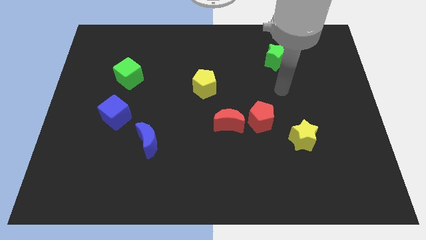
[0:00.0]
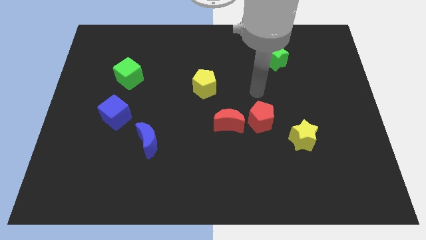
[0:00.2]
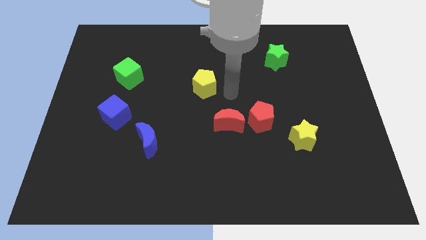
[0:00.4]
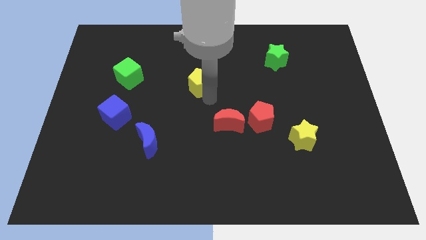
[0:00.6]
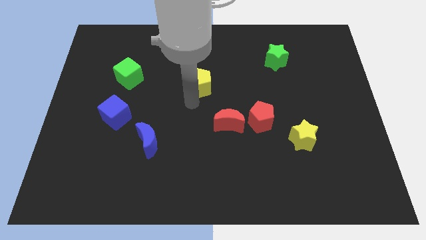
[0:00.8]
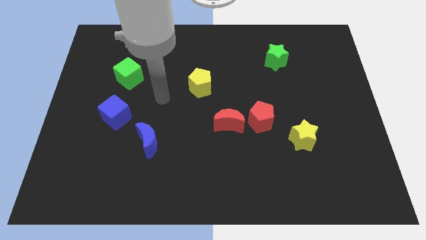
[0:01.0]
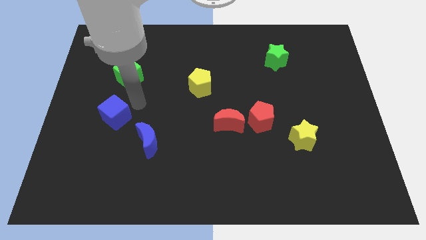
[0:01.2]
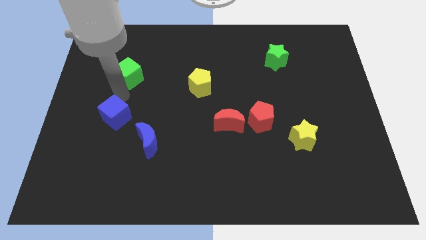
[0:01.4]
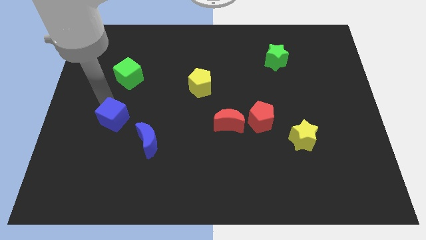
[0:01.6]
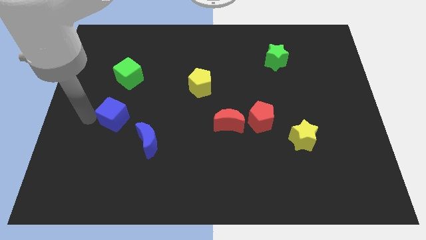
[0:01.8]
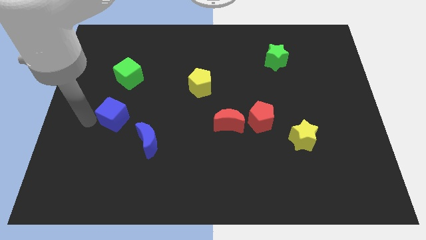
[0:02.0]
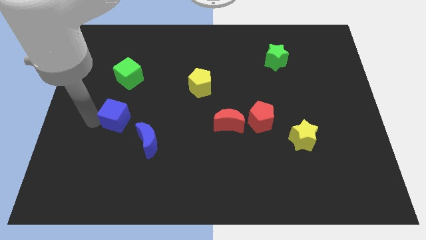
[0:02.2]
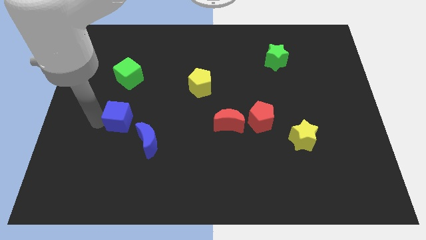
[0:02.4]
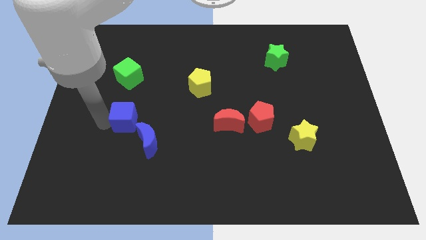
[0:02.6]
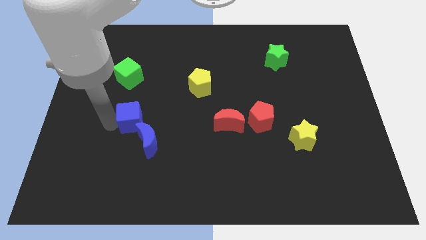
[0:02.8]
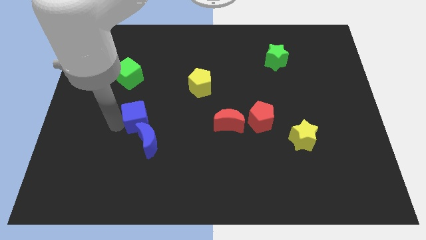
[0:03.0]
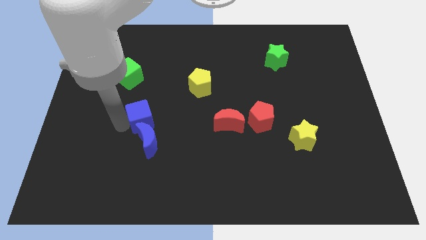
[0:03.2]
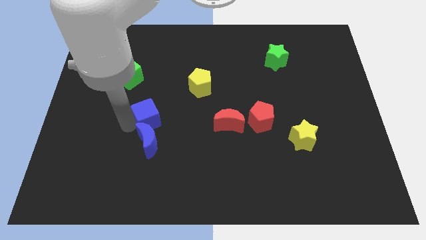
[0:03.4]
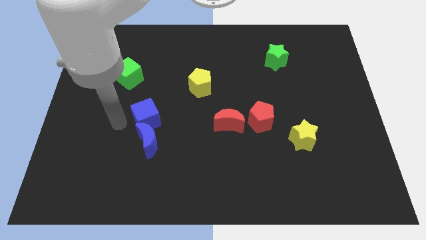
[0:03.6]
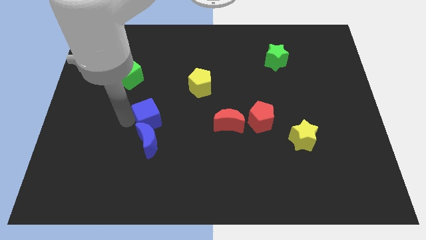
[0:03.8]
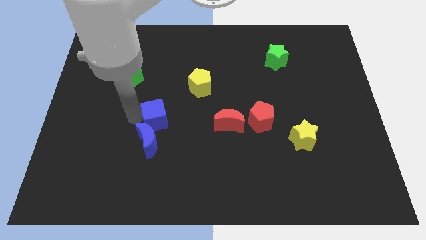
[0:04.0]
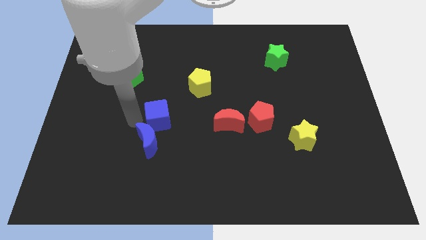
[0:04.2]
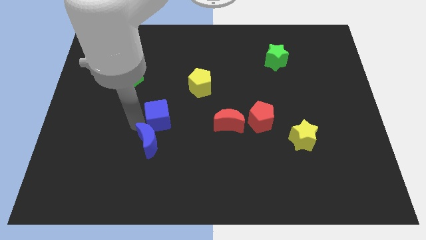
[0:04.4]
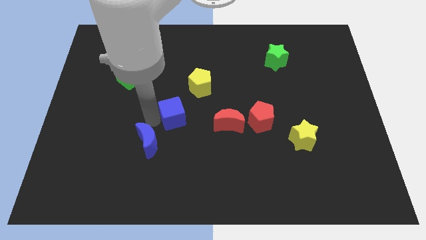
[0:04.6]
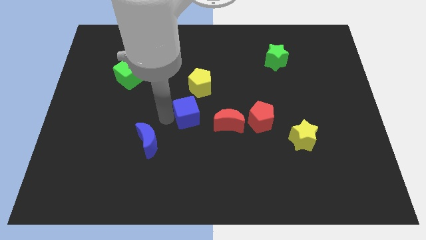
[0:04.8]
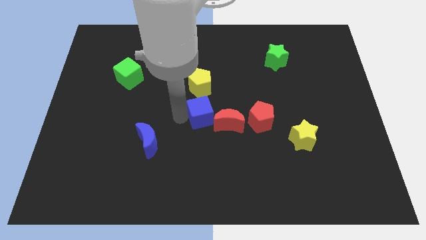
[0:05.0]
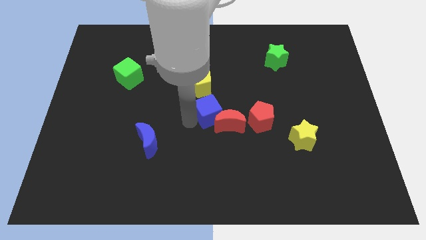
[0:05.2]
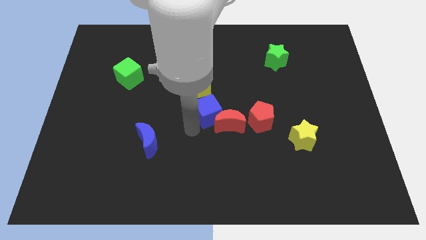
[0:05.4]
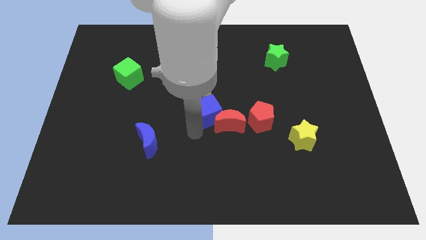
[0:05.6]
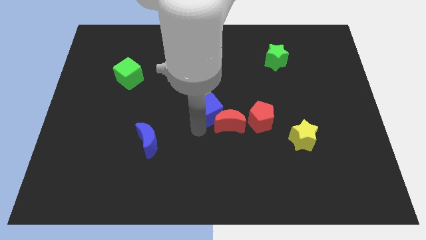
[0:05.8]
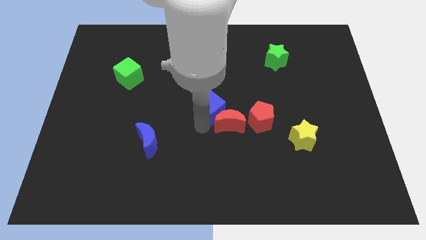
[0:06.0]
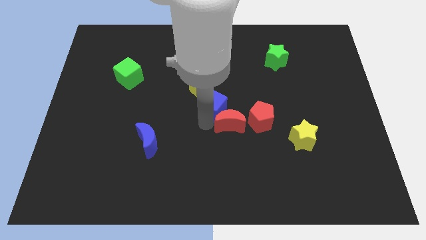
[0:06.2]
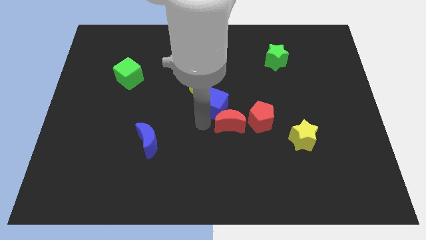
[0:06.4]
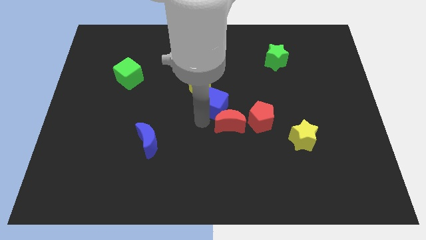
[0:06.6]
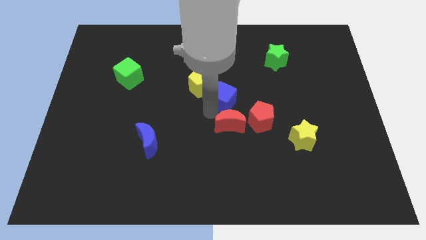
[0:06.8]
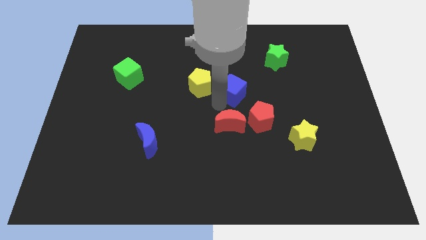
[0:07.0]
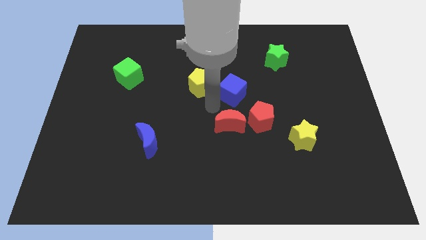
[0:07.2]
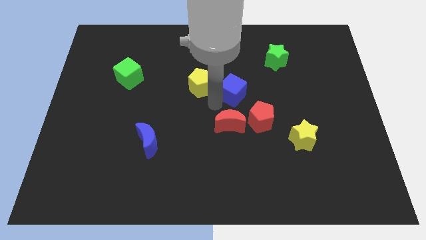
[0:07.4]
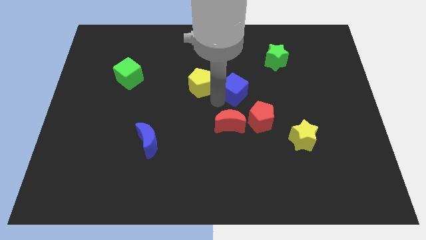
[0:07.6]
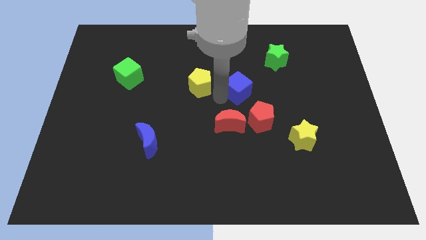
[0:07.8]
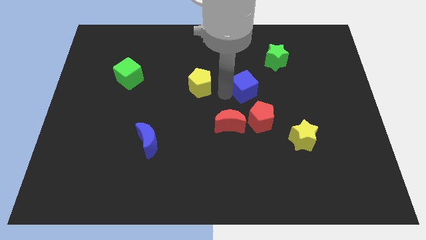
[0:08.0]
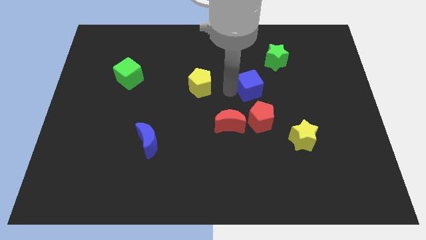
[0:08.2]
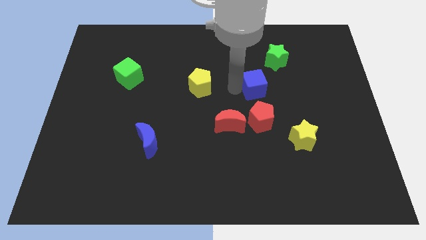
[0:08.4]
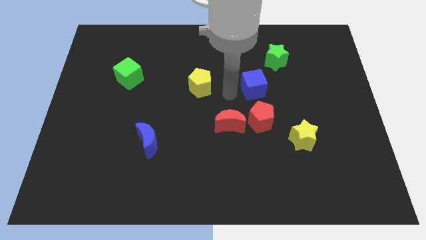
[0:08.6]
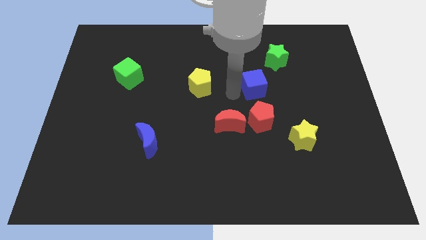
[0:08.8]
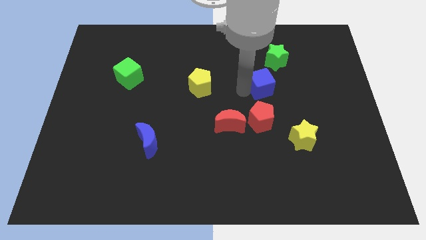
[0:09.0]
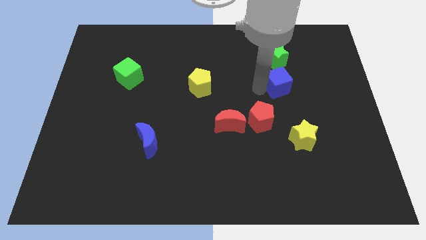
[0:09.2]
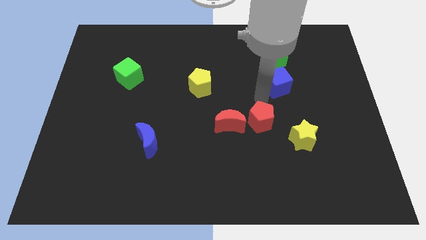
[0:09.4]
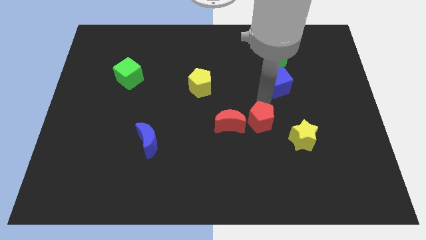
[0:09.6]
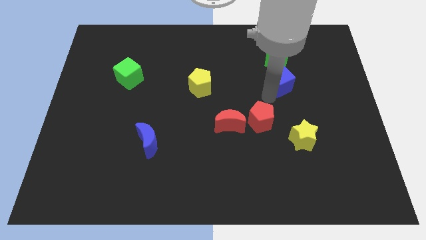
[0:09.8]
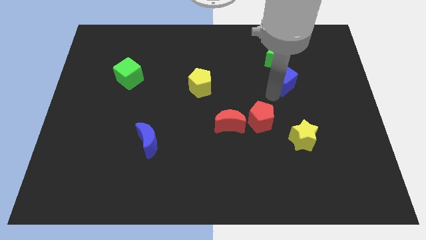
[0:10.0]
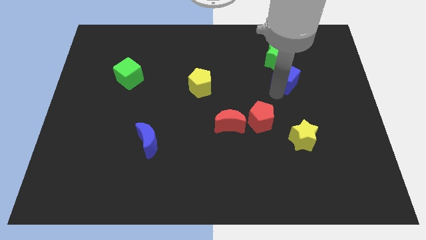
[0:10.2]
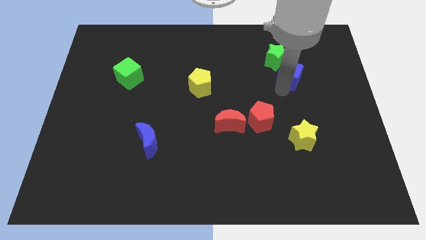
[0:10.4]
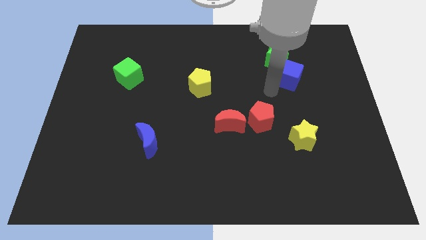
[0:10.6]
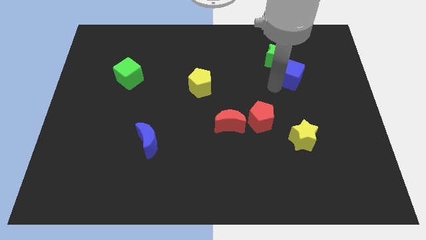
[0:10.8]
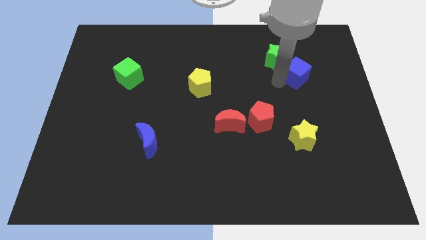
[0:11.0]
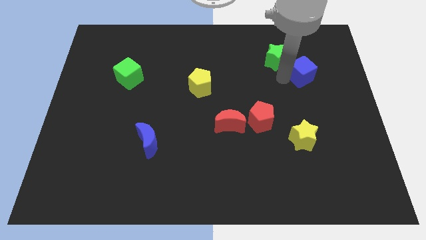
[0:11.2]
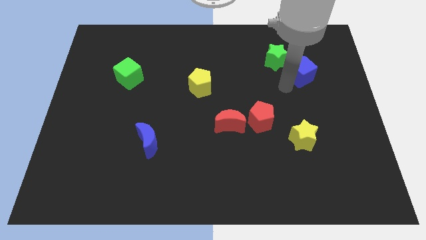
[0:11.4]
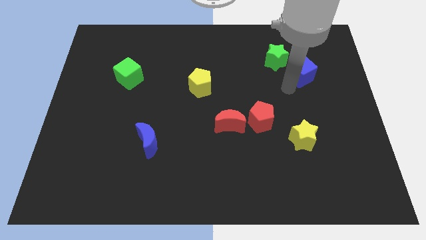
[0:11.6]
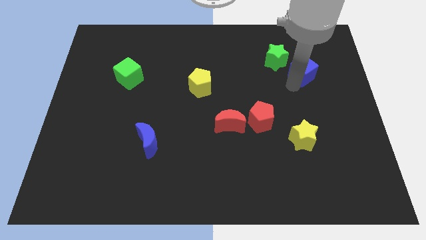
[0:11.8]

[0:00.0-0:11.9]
slide the blue cube to the right of the green star

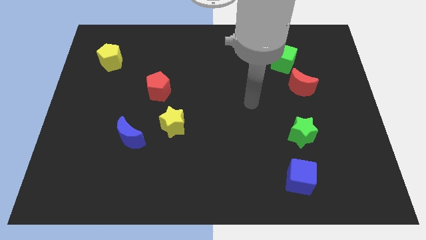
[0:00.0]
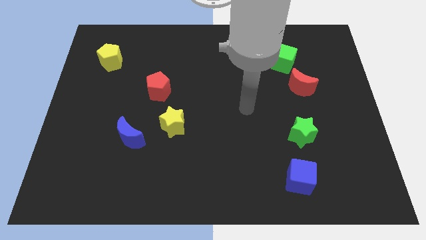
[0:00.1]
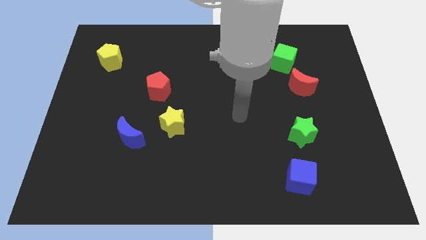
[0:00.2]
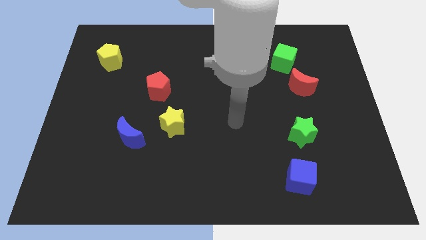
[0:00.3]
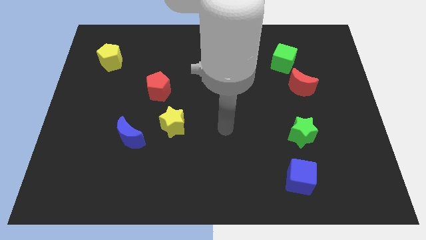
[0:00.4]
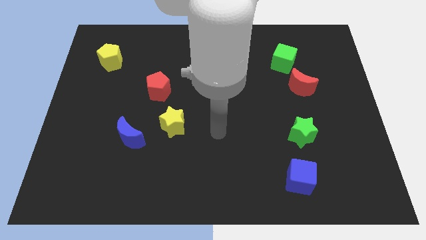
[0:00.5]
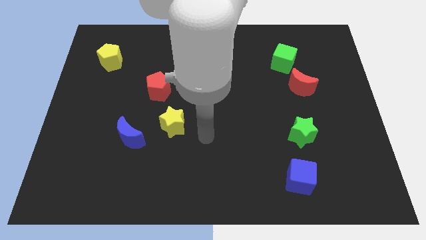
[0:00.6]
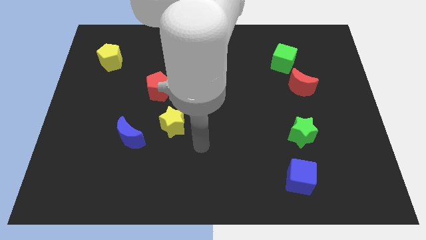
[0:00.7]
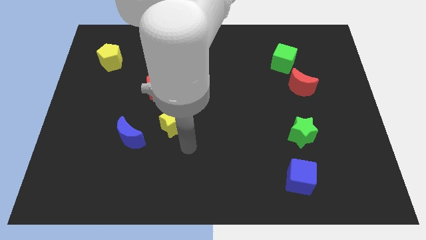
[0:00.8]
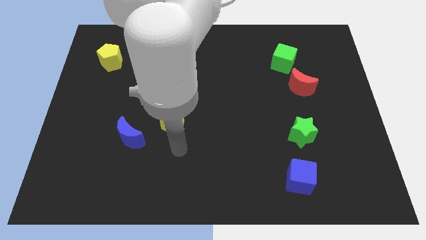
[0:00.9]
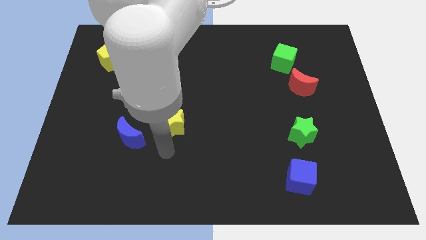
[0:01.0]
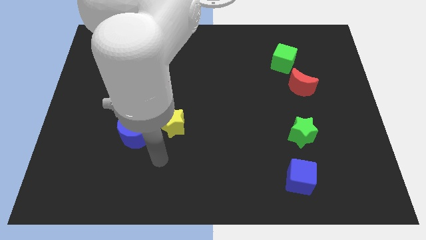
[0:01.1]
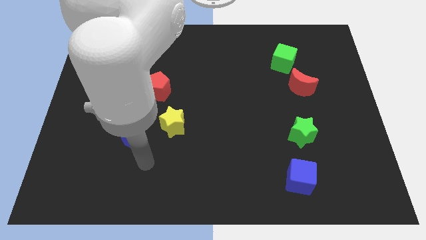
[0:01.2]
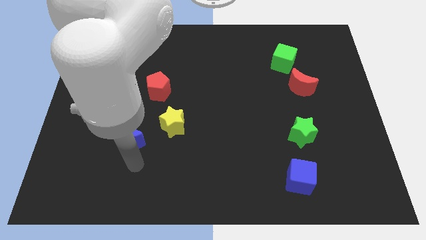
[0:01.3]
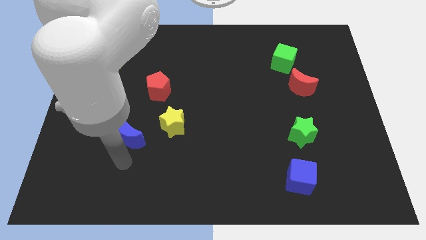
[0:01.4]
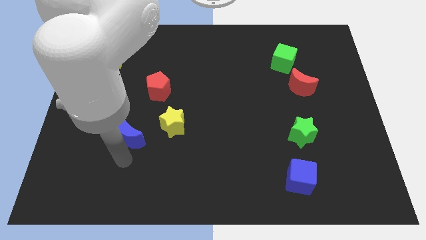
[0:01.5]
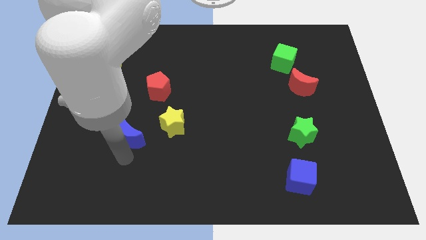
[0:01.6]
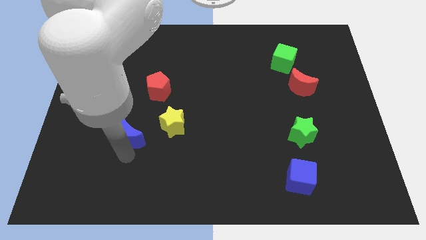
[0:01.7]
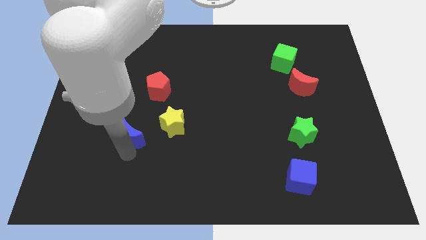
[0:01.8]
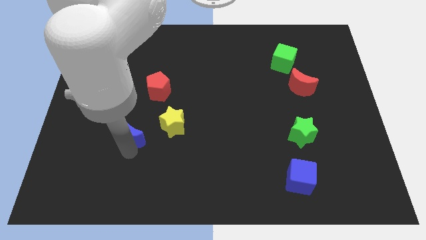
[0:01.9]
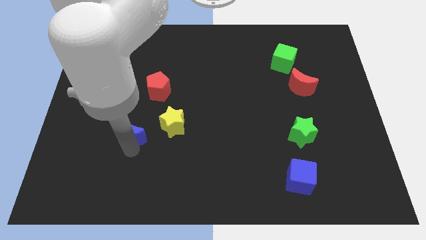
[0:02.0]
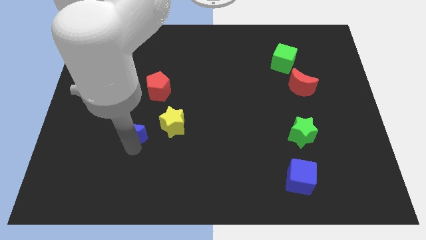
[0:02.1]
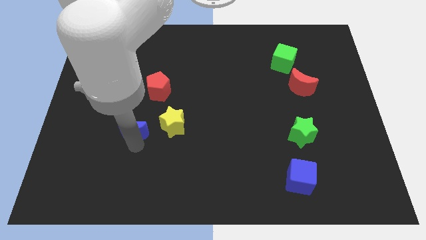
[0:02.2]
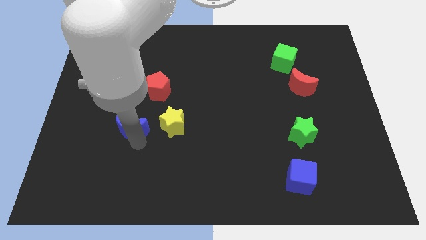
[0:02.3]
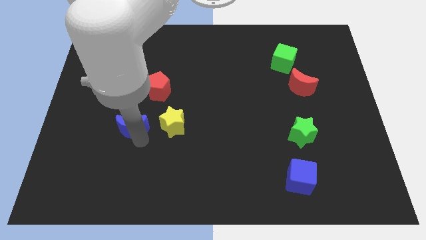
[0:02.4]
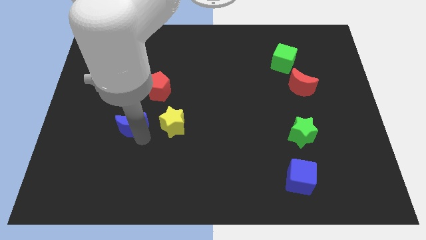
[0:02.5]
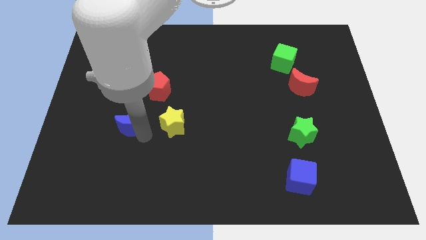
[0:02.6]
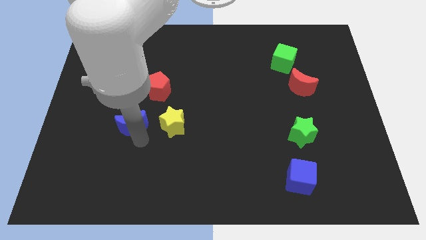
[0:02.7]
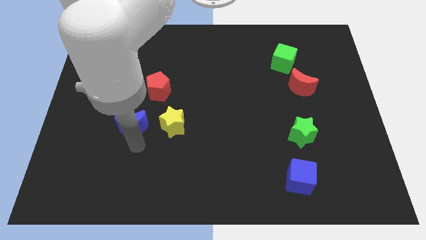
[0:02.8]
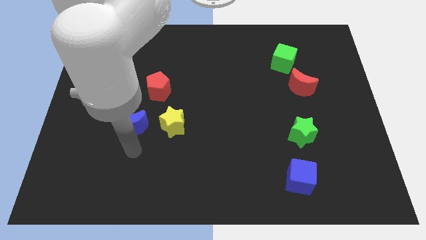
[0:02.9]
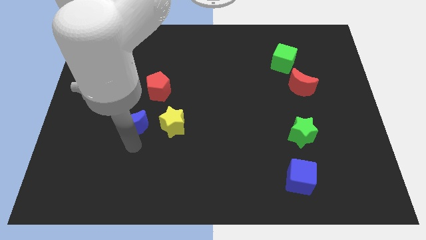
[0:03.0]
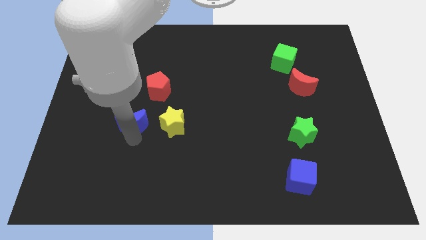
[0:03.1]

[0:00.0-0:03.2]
put the blue moon diagonally down and to the left of the red pentagon
